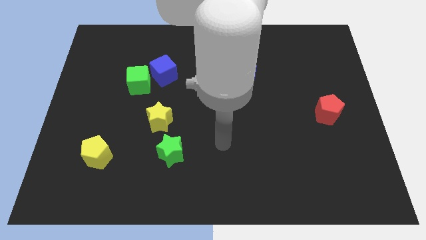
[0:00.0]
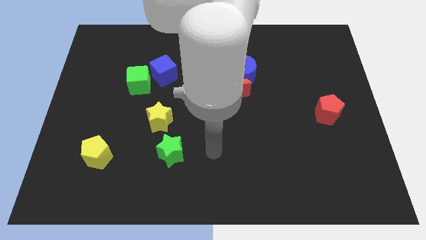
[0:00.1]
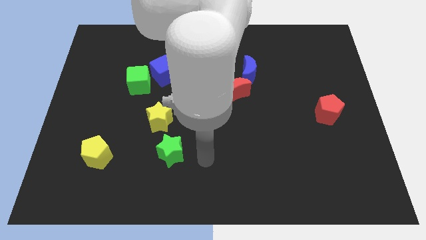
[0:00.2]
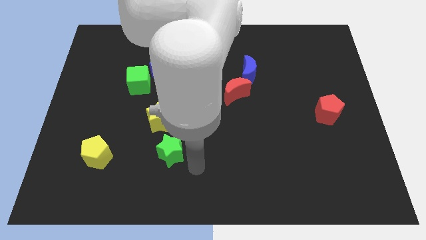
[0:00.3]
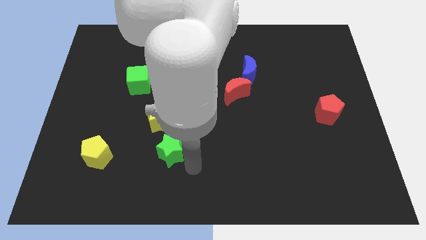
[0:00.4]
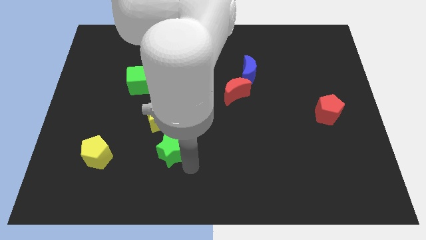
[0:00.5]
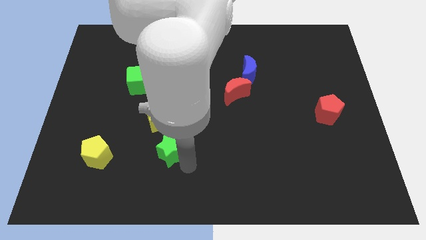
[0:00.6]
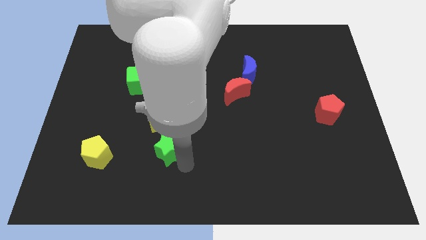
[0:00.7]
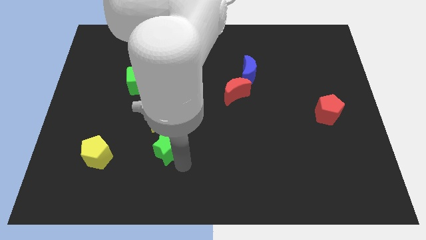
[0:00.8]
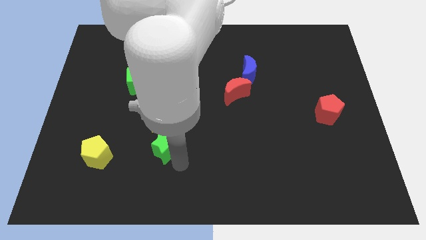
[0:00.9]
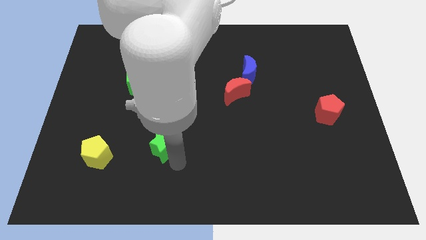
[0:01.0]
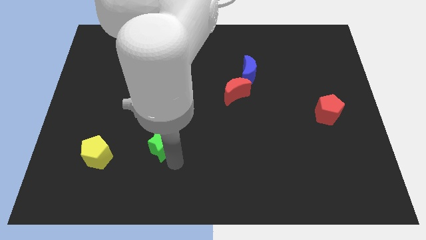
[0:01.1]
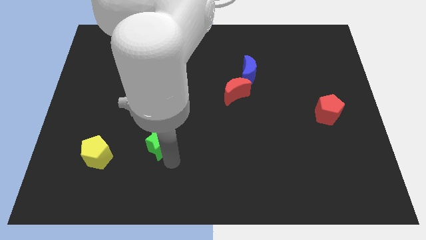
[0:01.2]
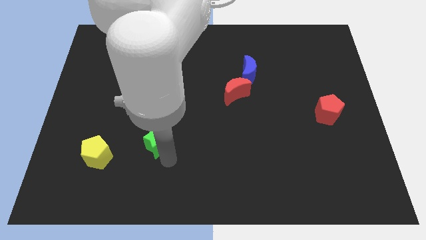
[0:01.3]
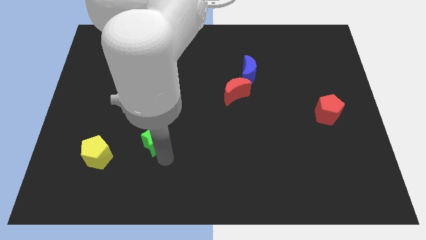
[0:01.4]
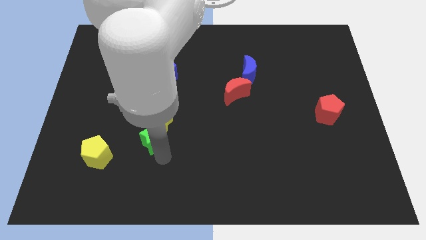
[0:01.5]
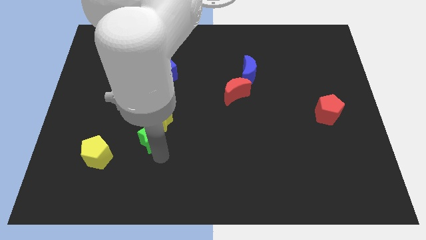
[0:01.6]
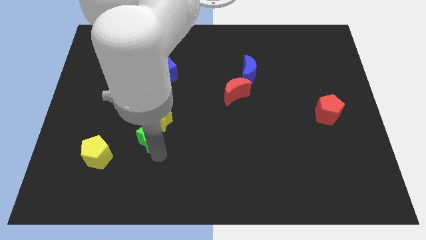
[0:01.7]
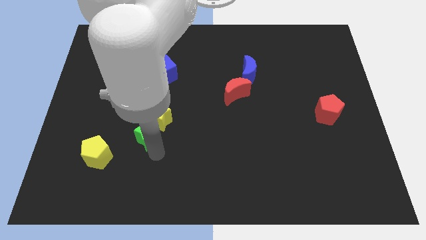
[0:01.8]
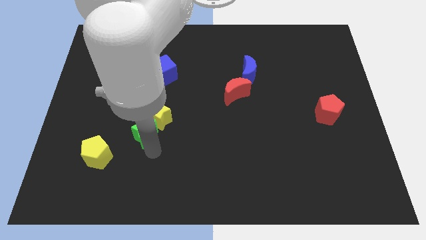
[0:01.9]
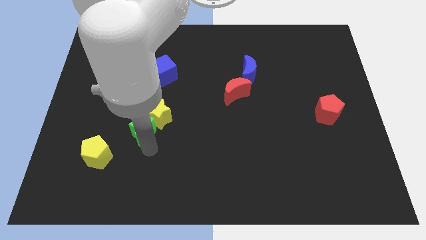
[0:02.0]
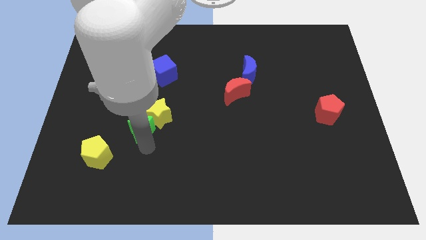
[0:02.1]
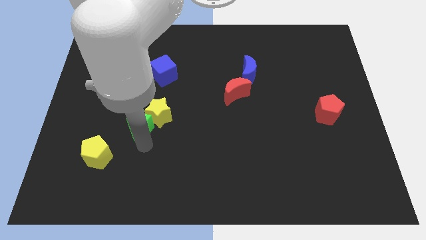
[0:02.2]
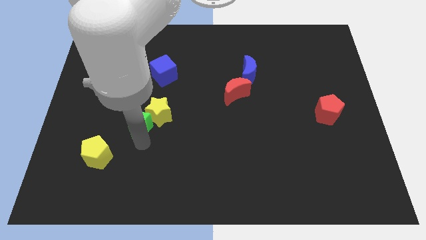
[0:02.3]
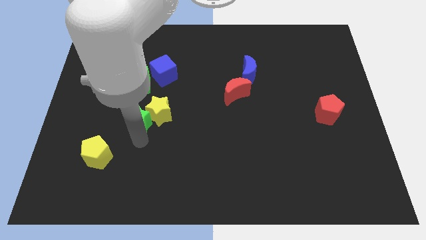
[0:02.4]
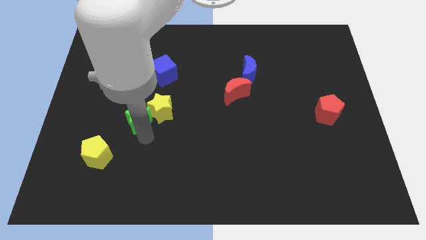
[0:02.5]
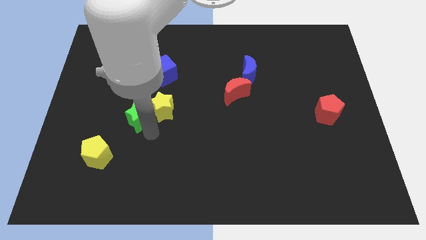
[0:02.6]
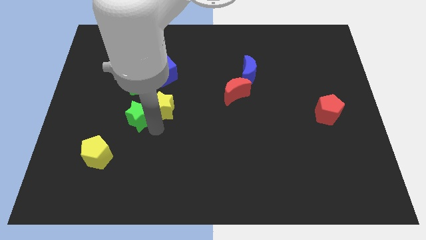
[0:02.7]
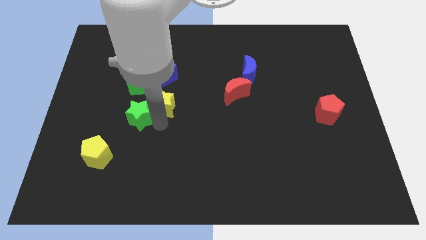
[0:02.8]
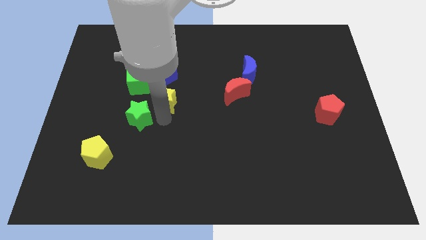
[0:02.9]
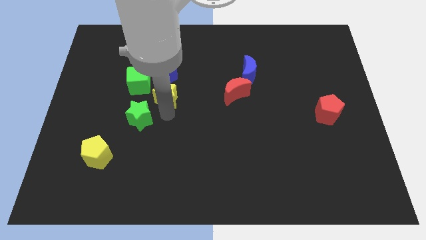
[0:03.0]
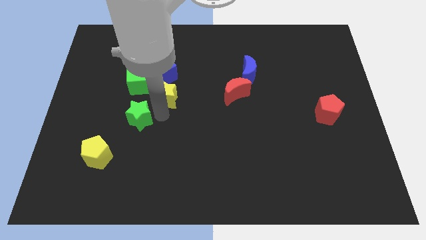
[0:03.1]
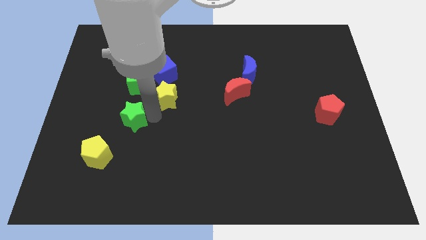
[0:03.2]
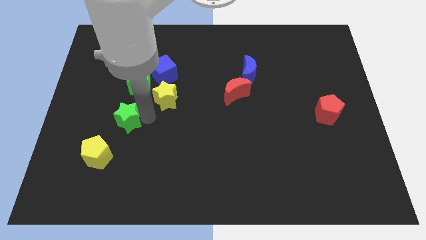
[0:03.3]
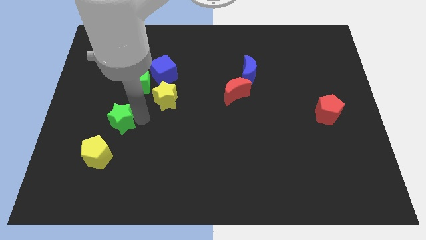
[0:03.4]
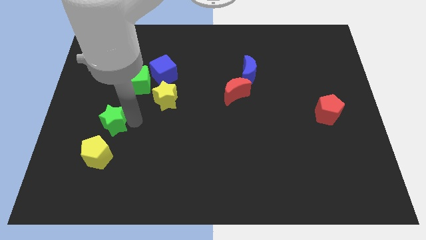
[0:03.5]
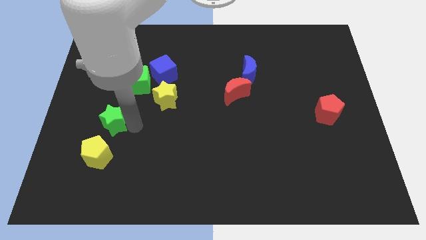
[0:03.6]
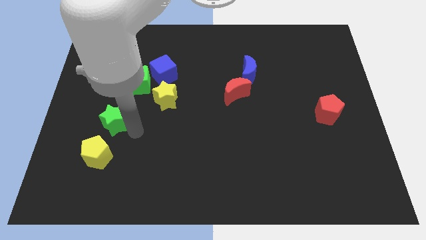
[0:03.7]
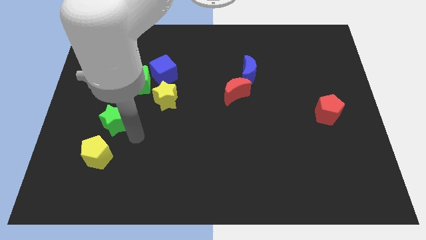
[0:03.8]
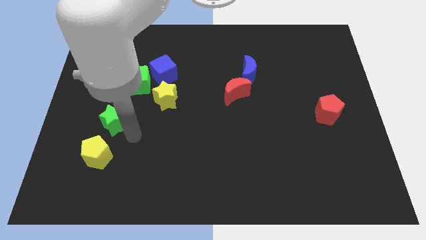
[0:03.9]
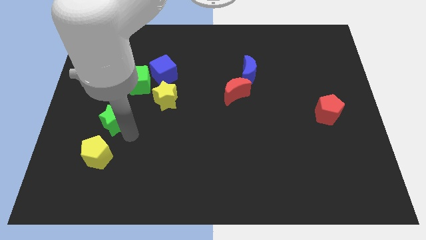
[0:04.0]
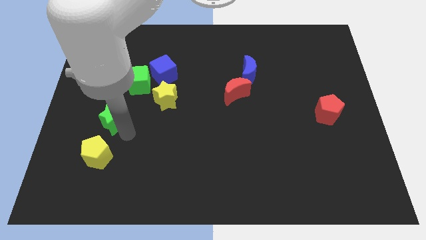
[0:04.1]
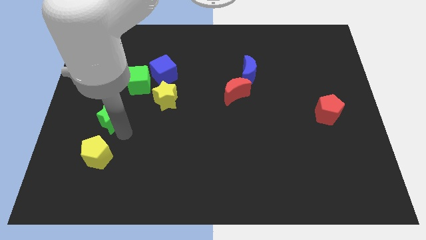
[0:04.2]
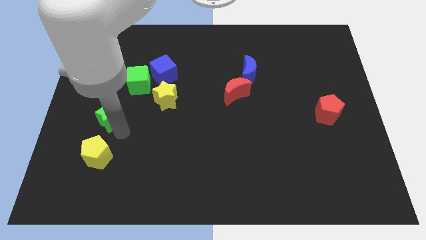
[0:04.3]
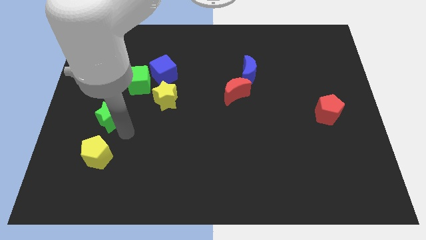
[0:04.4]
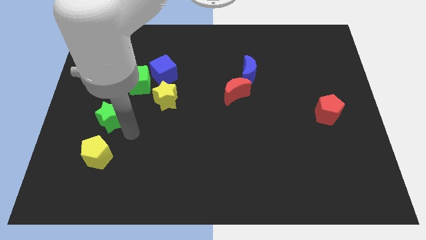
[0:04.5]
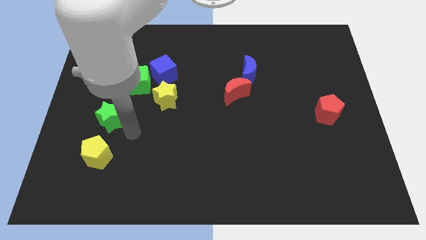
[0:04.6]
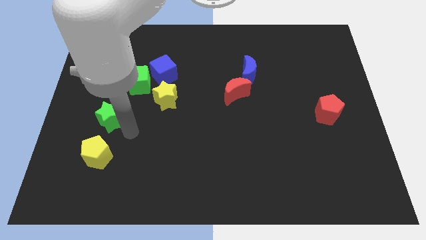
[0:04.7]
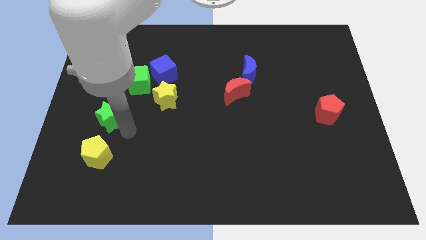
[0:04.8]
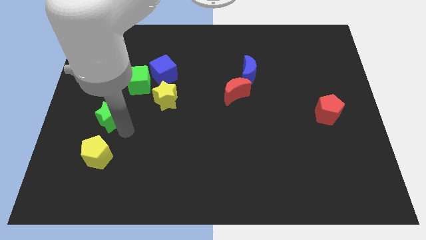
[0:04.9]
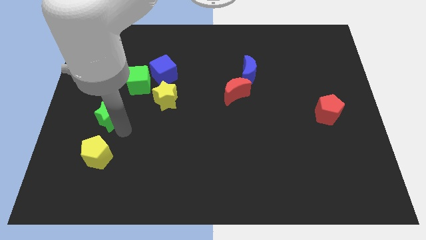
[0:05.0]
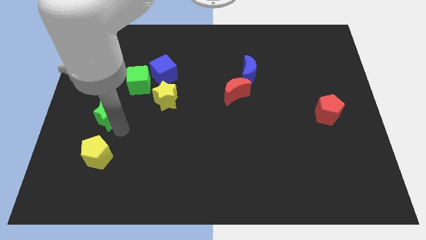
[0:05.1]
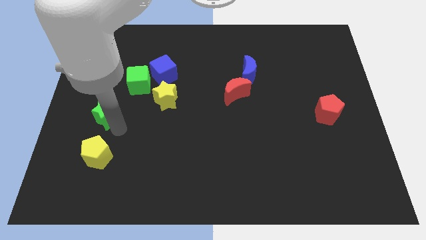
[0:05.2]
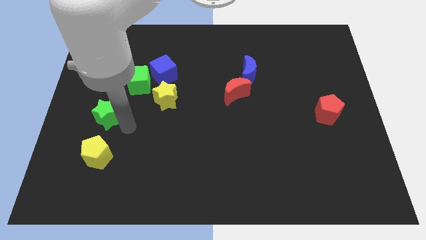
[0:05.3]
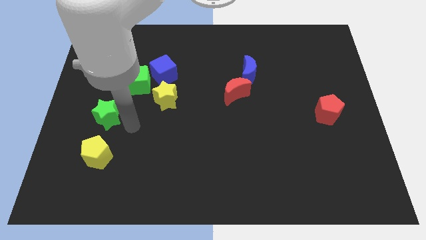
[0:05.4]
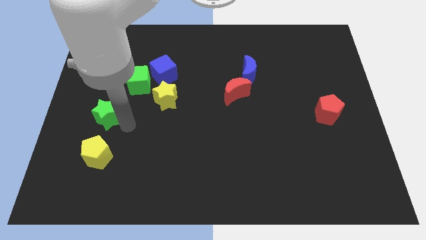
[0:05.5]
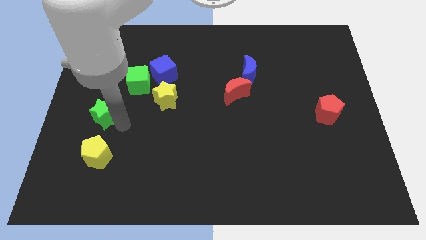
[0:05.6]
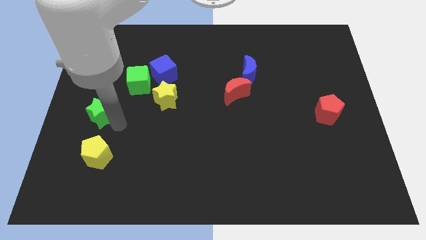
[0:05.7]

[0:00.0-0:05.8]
push the green star to the left side of the board
